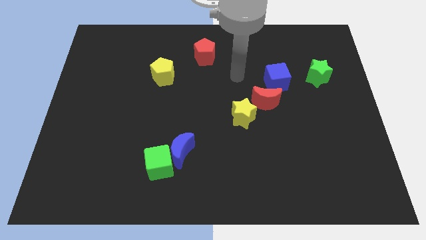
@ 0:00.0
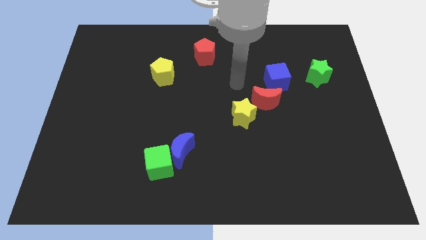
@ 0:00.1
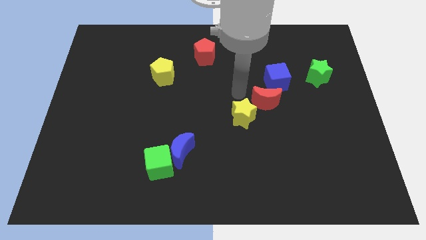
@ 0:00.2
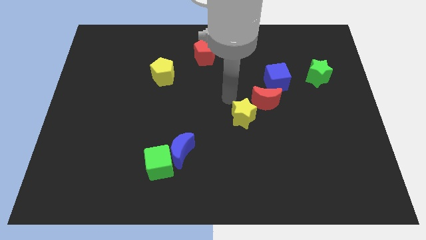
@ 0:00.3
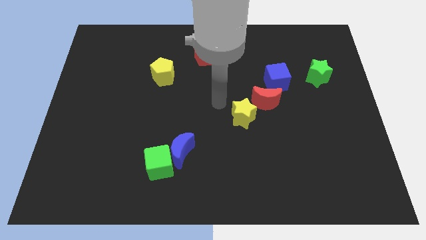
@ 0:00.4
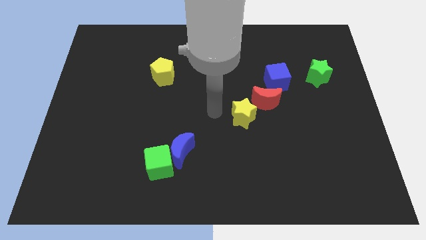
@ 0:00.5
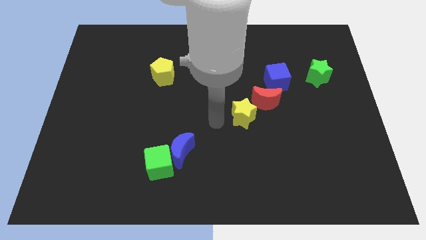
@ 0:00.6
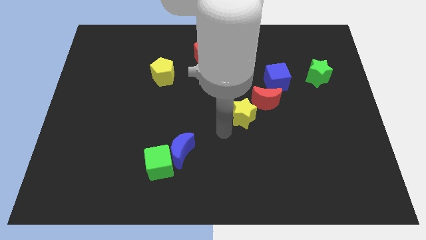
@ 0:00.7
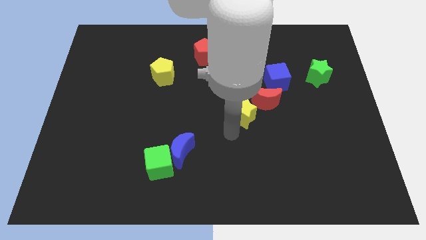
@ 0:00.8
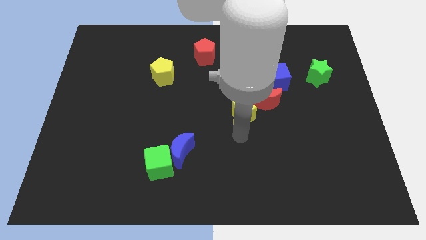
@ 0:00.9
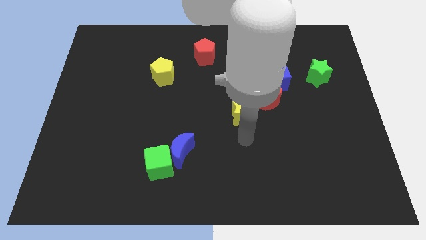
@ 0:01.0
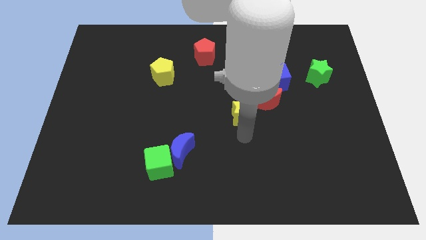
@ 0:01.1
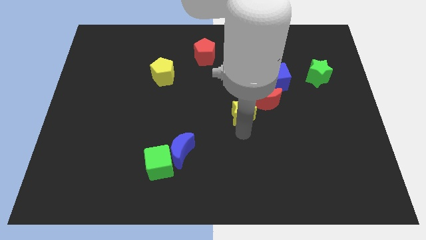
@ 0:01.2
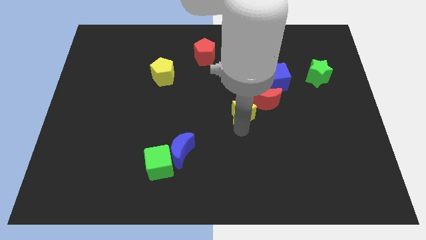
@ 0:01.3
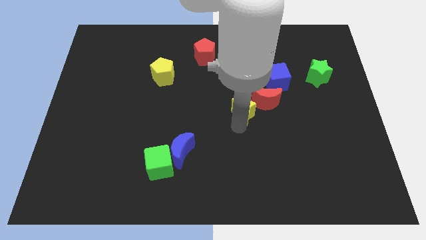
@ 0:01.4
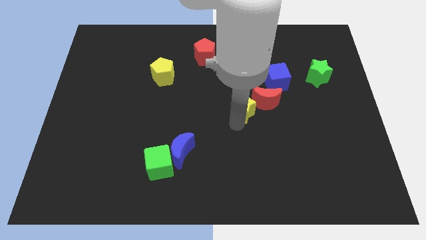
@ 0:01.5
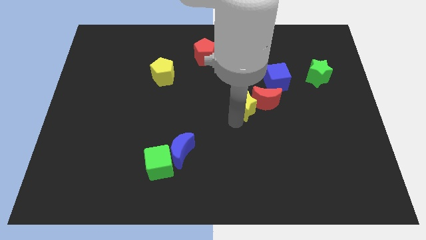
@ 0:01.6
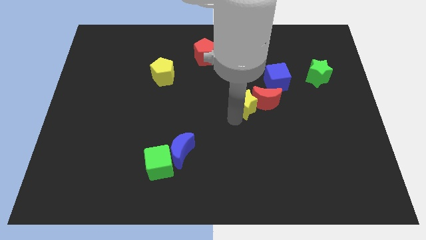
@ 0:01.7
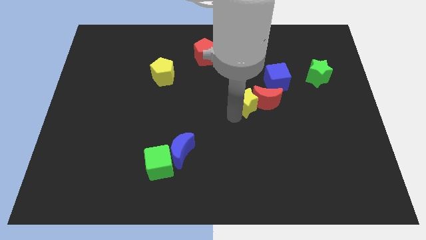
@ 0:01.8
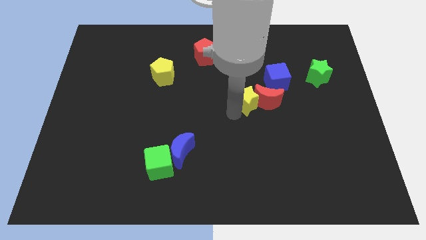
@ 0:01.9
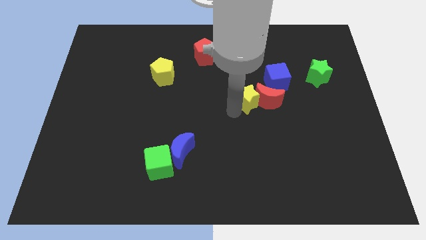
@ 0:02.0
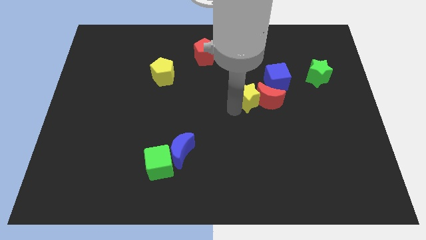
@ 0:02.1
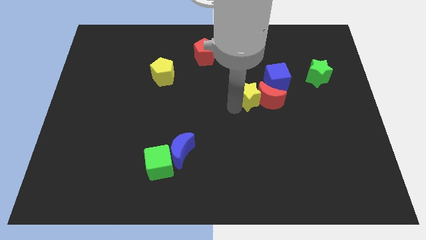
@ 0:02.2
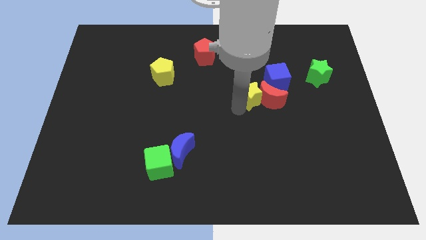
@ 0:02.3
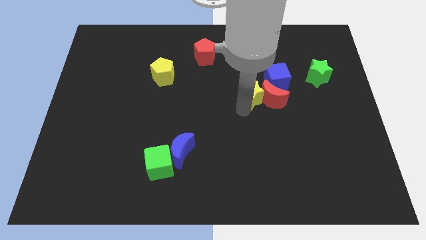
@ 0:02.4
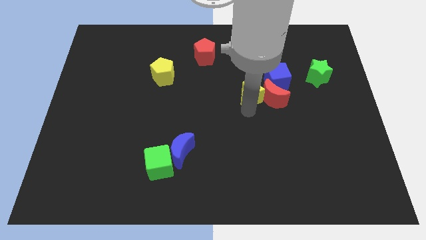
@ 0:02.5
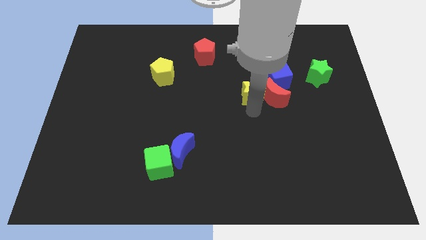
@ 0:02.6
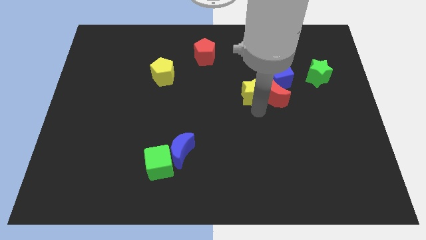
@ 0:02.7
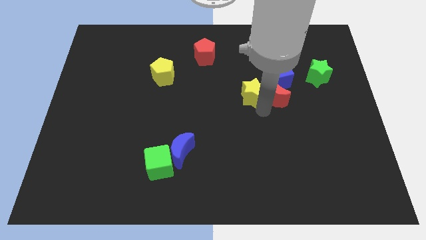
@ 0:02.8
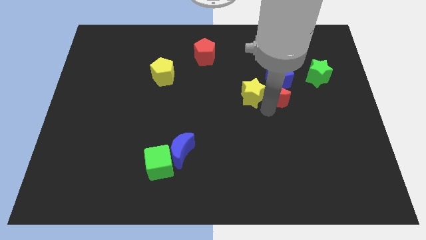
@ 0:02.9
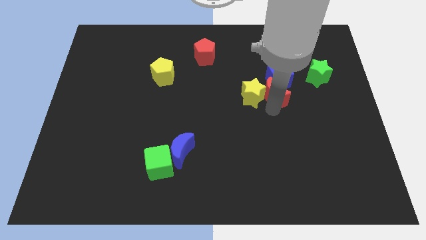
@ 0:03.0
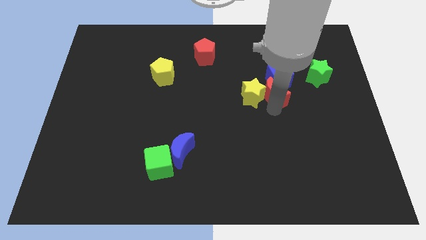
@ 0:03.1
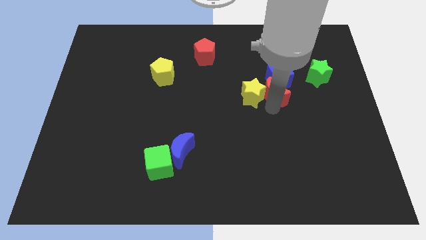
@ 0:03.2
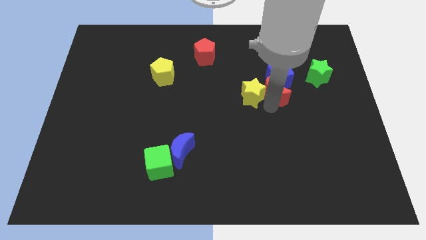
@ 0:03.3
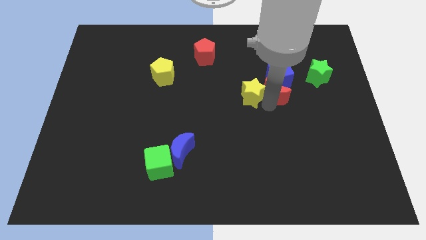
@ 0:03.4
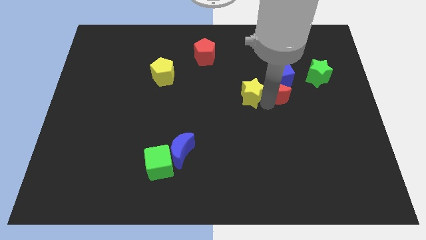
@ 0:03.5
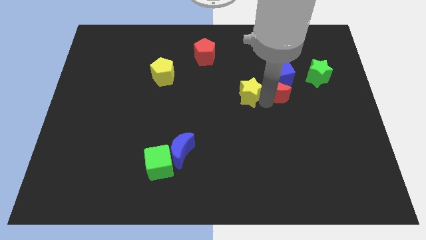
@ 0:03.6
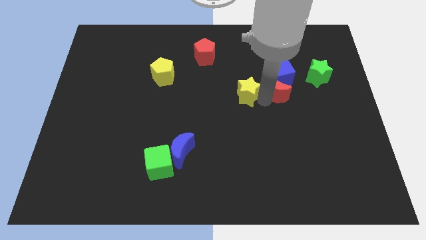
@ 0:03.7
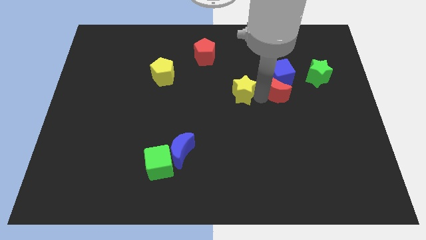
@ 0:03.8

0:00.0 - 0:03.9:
slide the yellow star up slightly

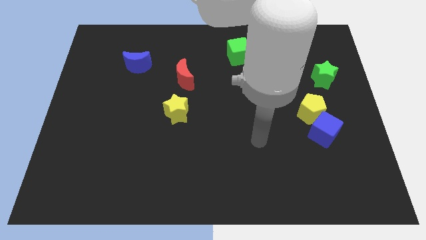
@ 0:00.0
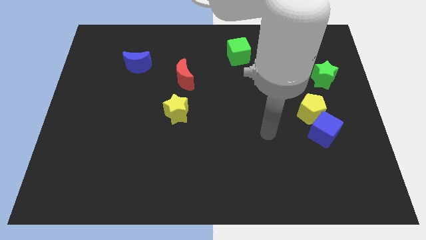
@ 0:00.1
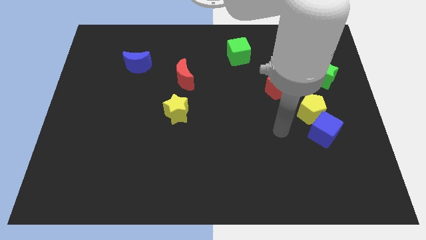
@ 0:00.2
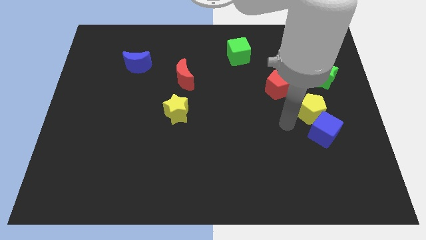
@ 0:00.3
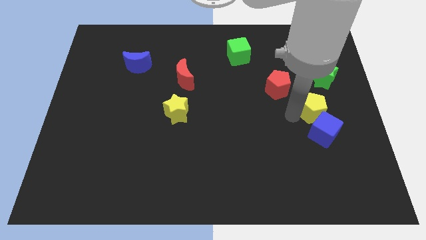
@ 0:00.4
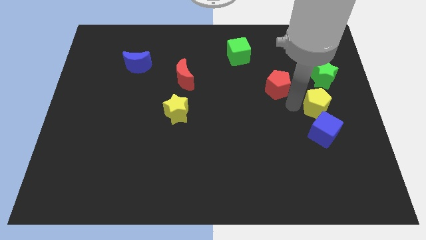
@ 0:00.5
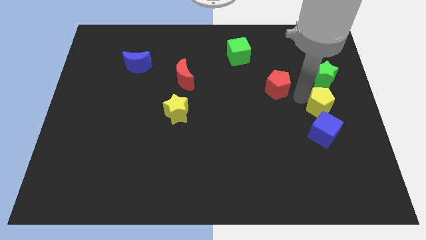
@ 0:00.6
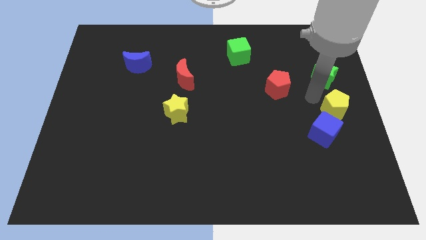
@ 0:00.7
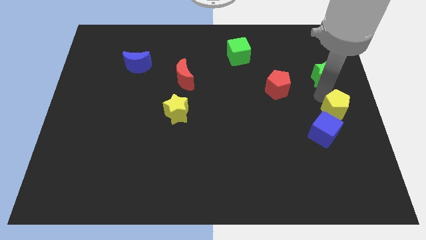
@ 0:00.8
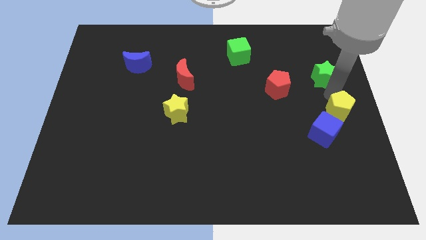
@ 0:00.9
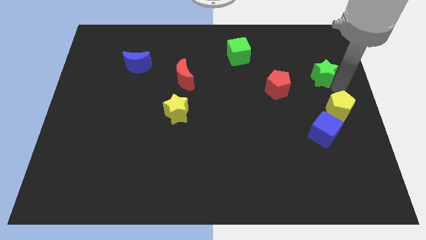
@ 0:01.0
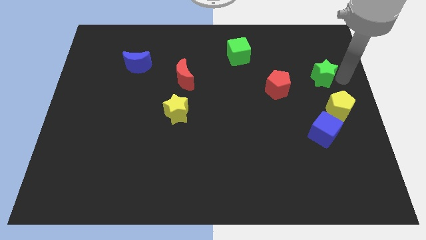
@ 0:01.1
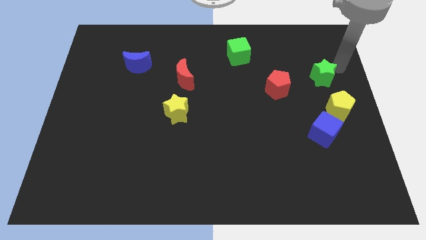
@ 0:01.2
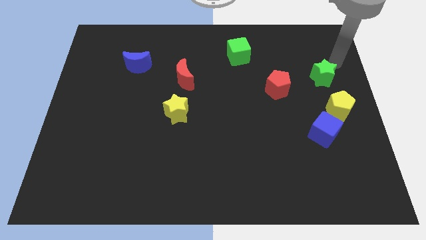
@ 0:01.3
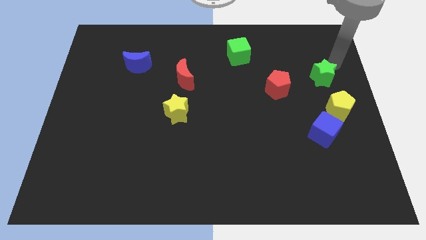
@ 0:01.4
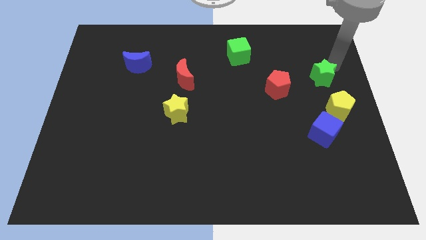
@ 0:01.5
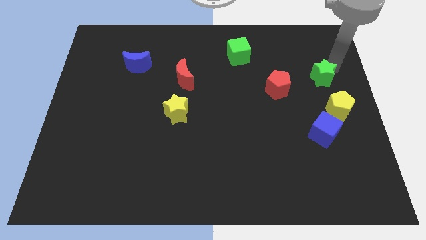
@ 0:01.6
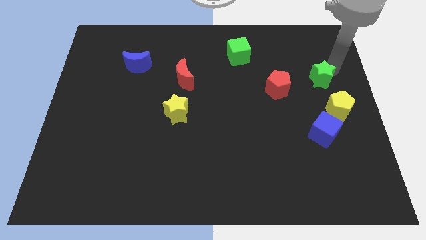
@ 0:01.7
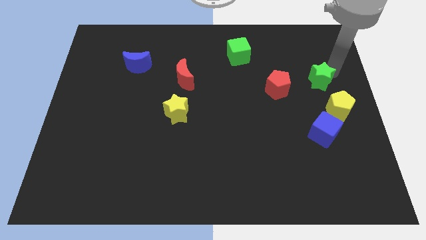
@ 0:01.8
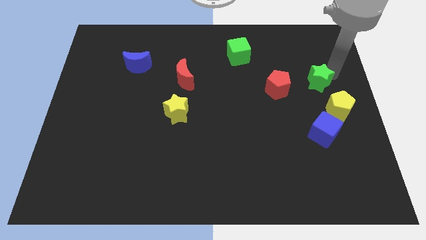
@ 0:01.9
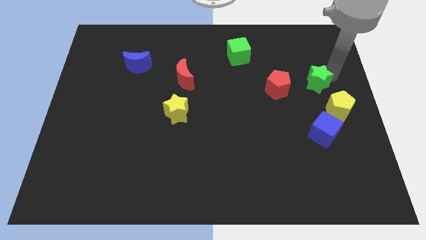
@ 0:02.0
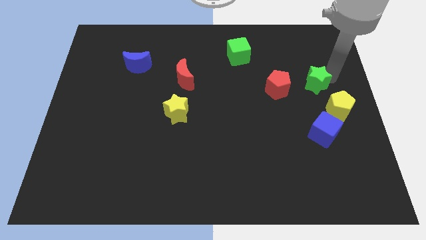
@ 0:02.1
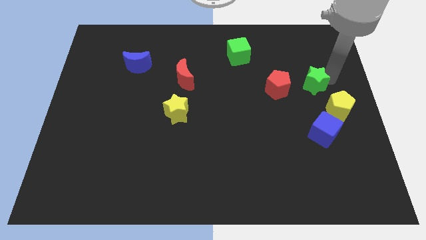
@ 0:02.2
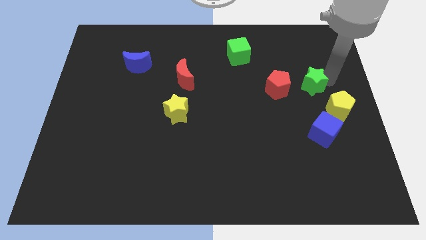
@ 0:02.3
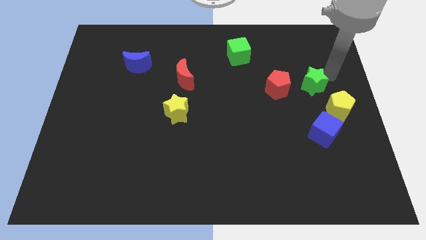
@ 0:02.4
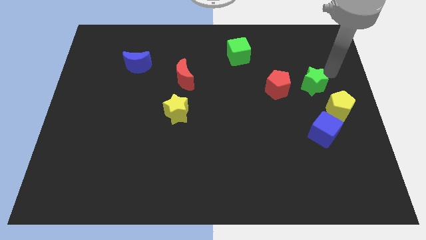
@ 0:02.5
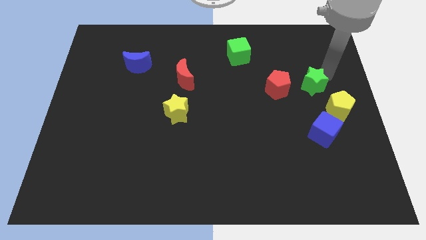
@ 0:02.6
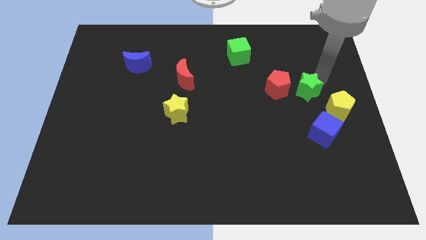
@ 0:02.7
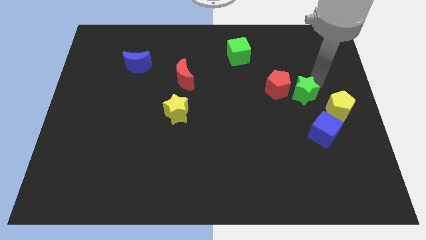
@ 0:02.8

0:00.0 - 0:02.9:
slightly move the green star downwards and left

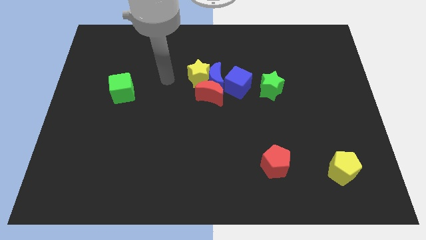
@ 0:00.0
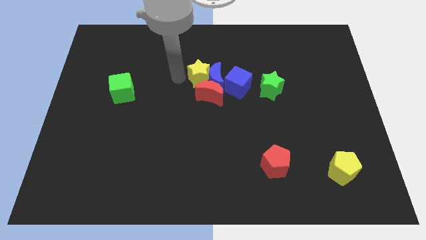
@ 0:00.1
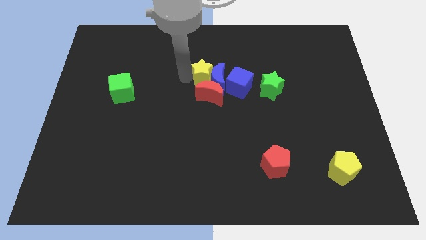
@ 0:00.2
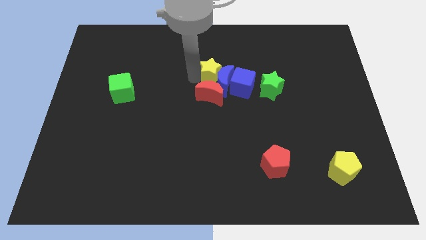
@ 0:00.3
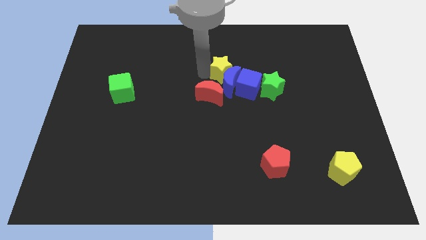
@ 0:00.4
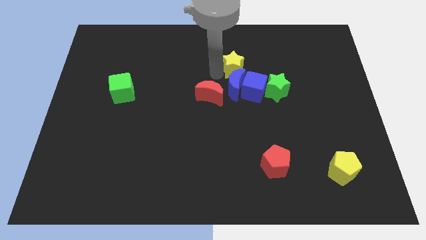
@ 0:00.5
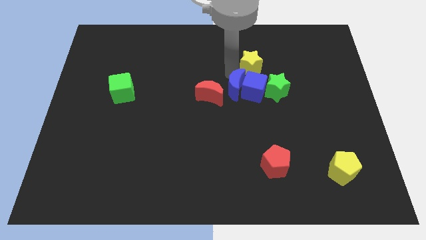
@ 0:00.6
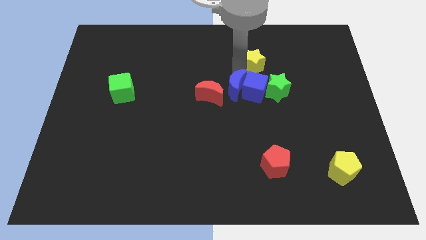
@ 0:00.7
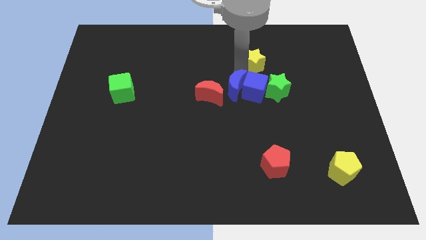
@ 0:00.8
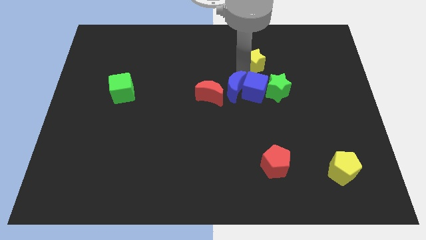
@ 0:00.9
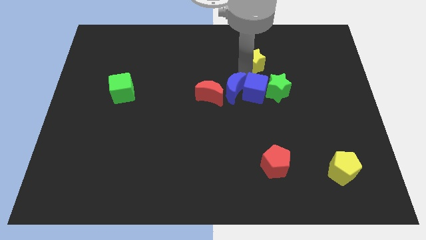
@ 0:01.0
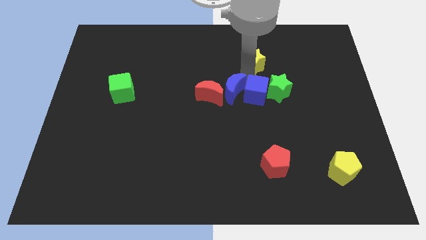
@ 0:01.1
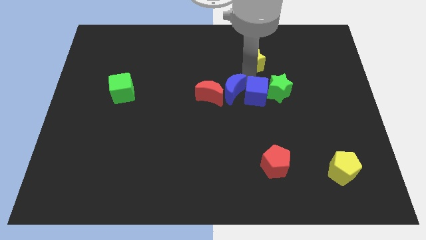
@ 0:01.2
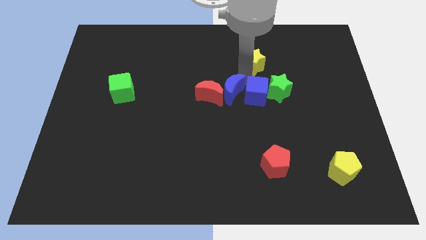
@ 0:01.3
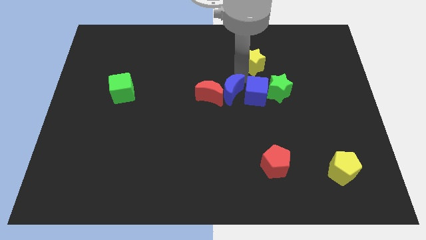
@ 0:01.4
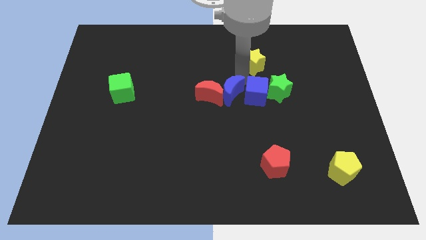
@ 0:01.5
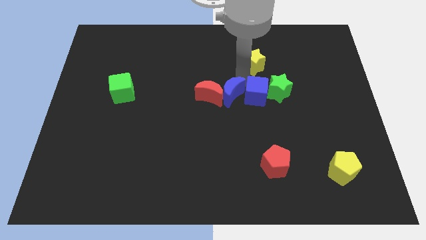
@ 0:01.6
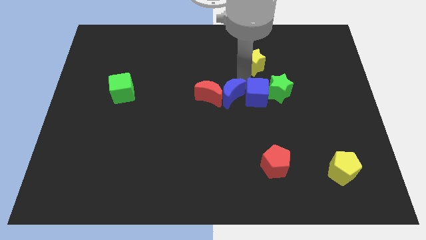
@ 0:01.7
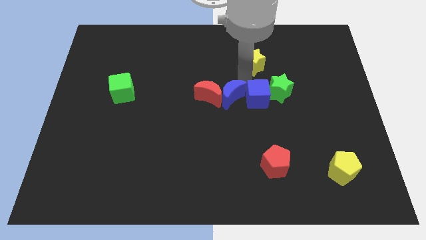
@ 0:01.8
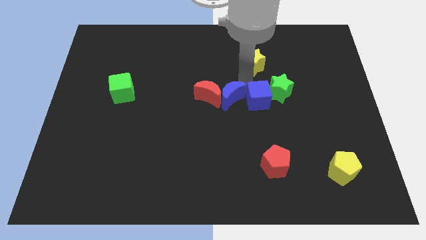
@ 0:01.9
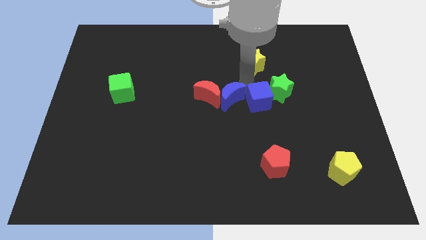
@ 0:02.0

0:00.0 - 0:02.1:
slightly slide the blue cube down and to the right diagonally
